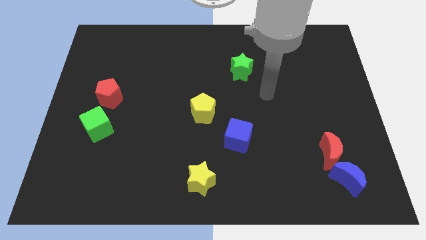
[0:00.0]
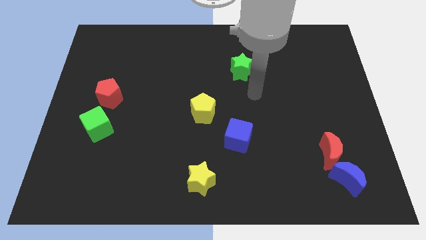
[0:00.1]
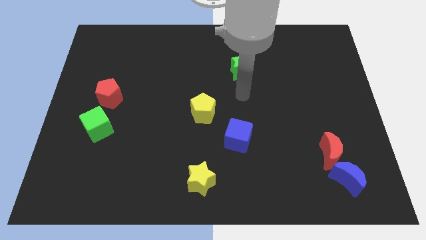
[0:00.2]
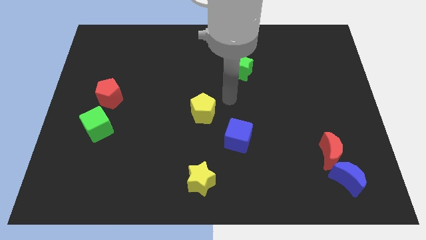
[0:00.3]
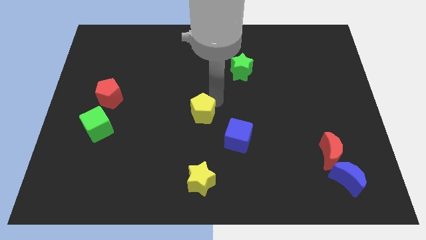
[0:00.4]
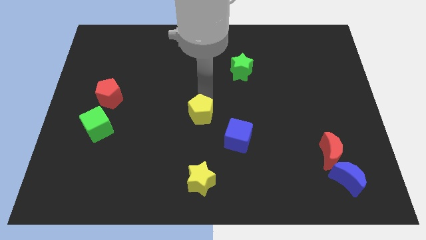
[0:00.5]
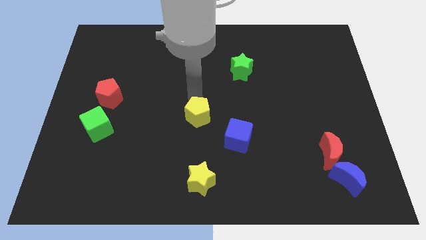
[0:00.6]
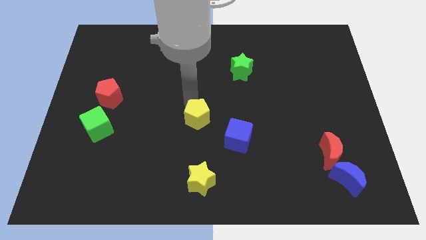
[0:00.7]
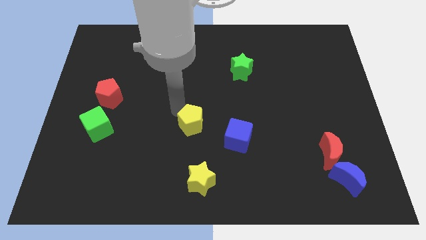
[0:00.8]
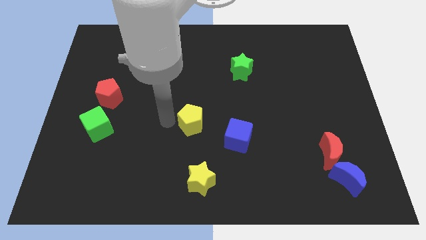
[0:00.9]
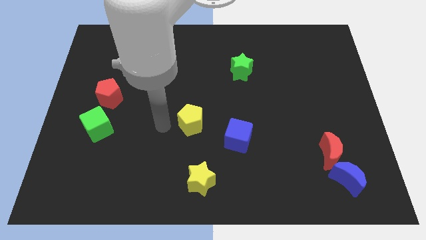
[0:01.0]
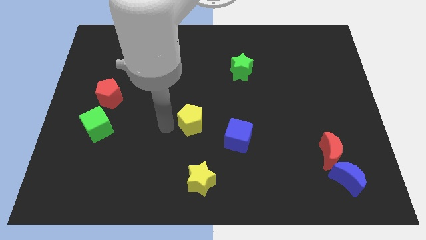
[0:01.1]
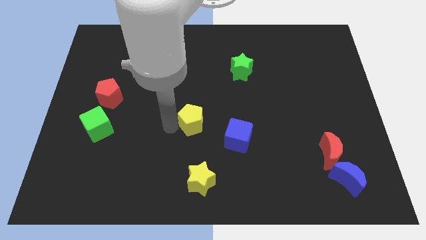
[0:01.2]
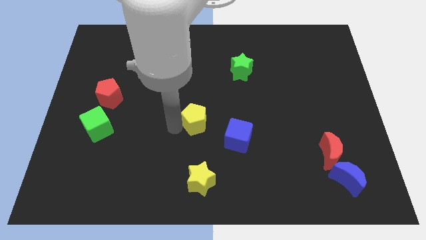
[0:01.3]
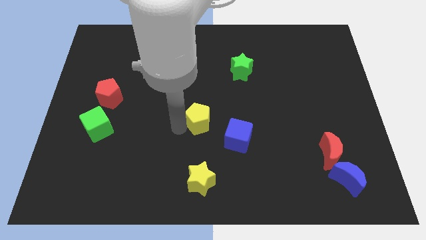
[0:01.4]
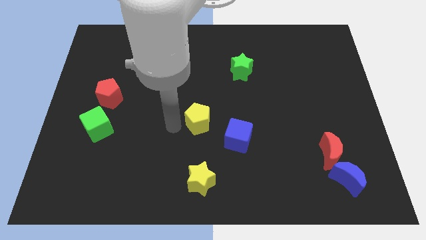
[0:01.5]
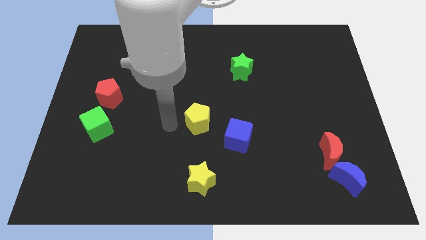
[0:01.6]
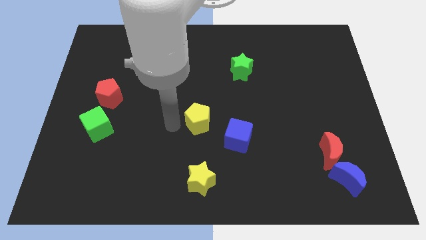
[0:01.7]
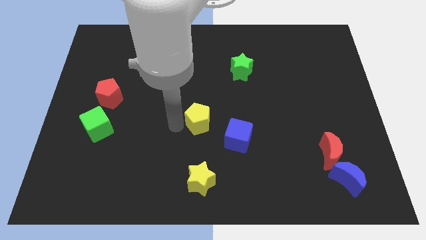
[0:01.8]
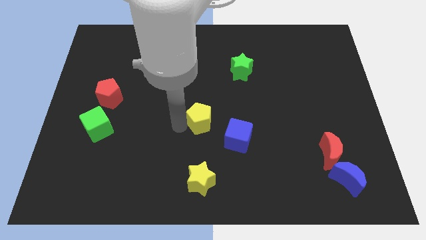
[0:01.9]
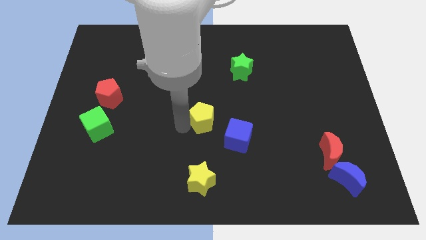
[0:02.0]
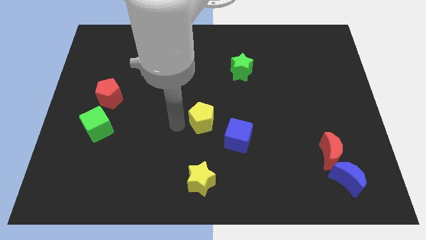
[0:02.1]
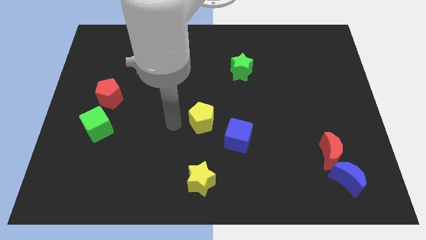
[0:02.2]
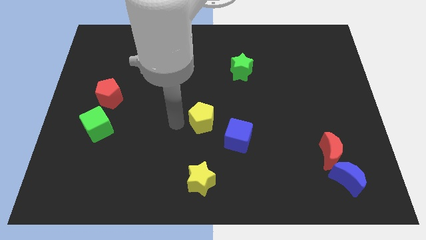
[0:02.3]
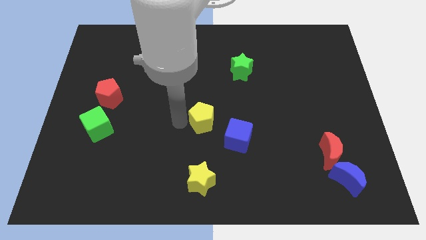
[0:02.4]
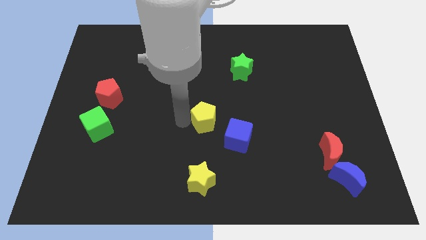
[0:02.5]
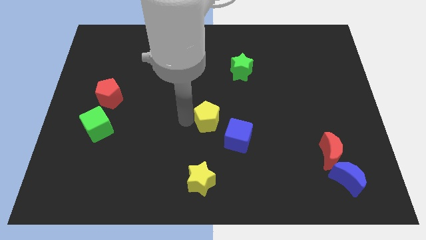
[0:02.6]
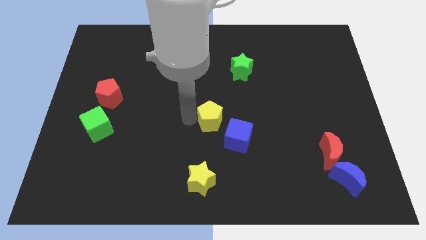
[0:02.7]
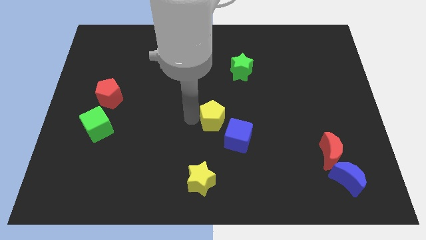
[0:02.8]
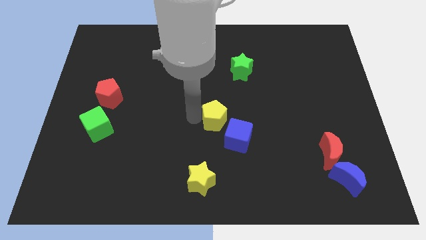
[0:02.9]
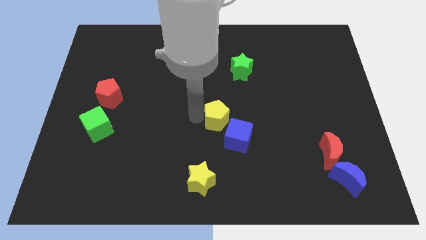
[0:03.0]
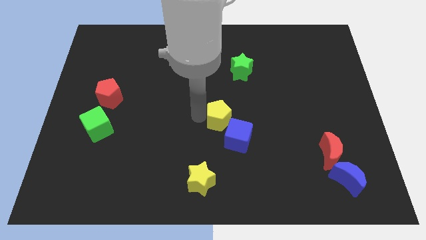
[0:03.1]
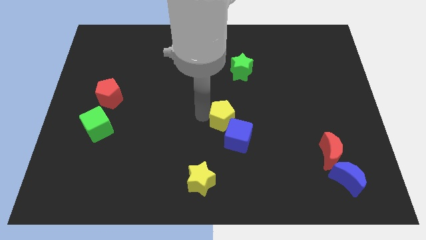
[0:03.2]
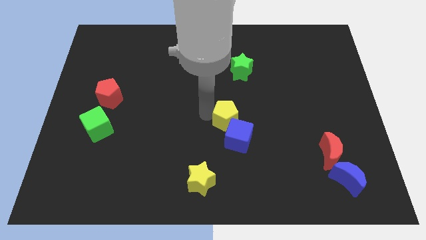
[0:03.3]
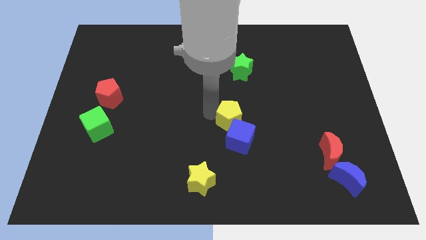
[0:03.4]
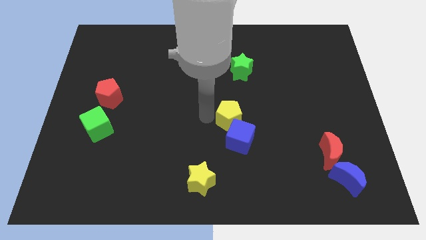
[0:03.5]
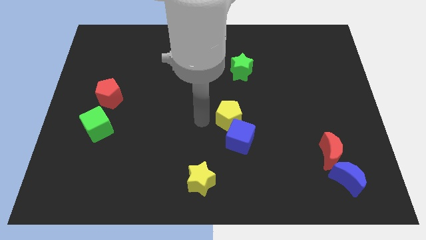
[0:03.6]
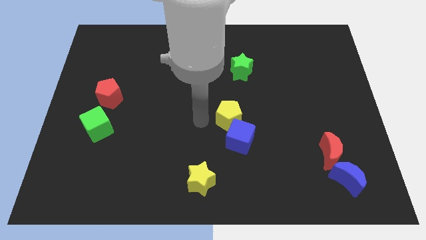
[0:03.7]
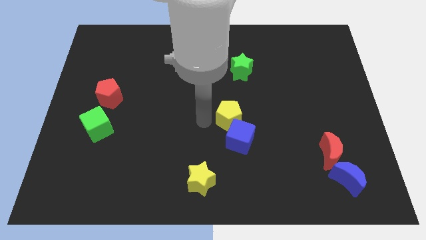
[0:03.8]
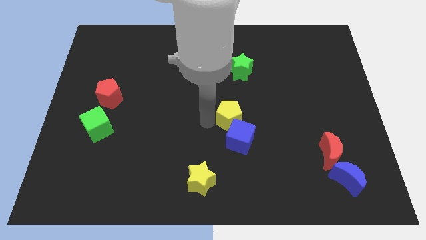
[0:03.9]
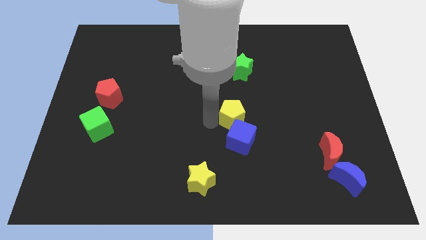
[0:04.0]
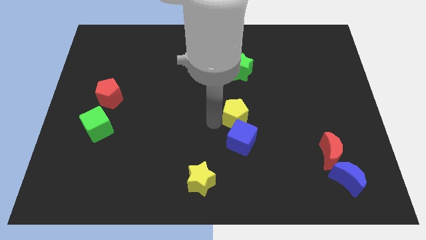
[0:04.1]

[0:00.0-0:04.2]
move the yellow pentagon a little to the right

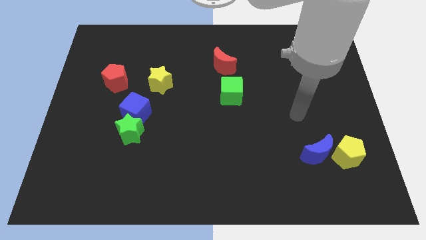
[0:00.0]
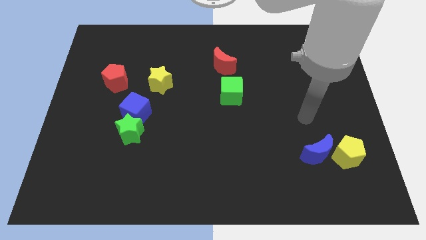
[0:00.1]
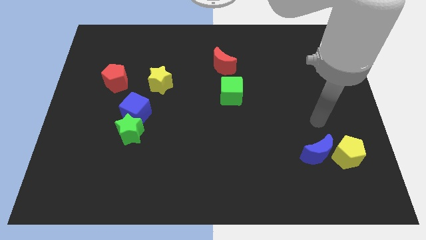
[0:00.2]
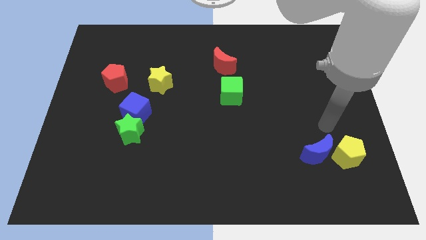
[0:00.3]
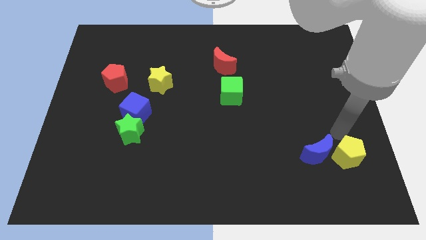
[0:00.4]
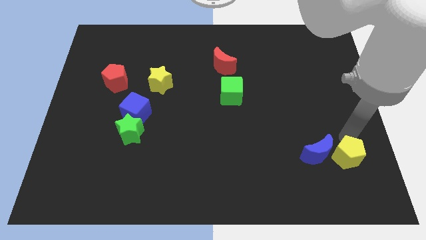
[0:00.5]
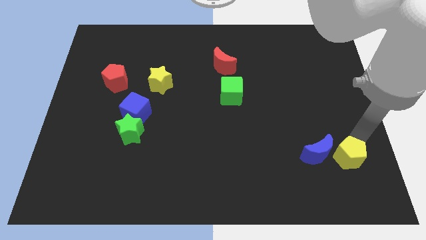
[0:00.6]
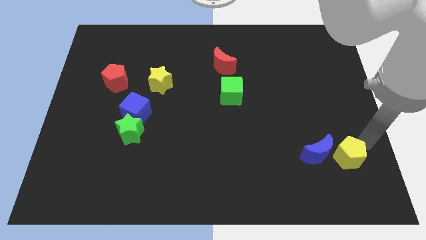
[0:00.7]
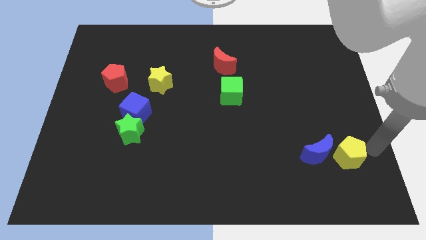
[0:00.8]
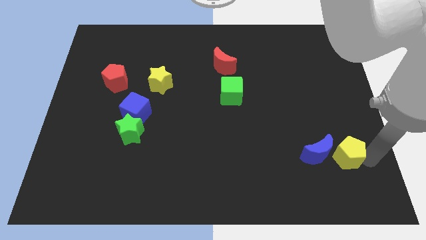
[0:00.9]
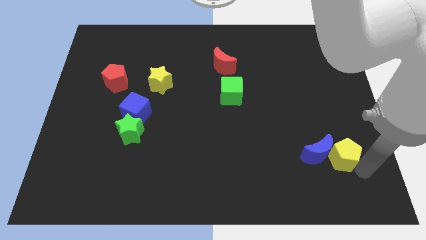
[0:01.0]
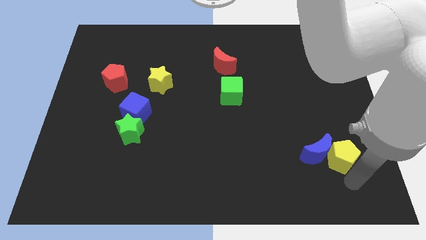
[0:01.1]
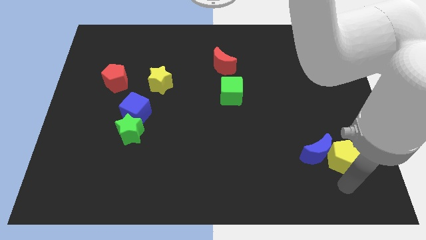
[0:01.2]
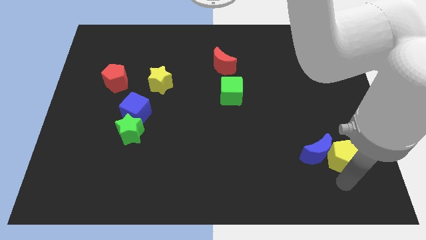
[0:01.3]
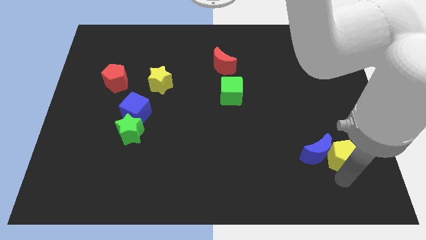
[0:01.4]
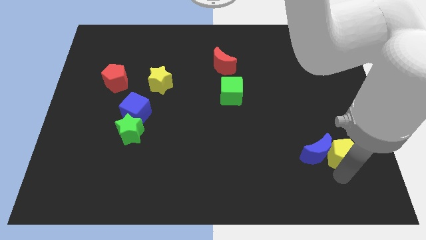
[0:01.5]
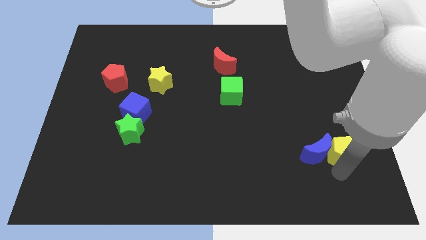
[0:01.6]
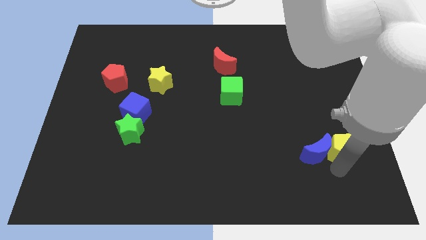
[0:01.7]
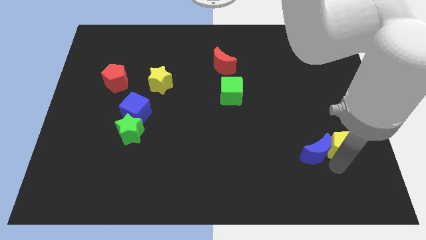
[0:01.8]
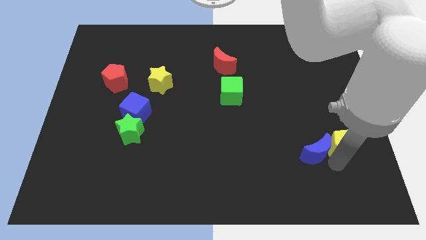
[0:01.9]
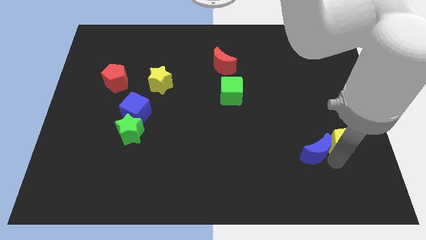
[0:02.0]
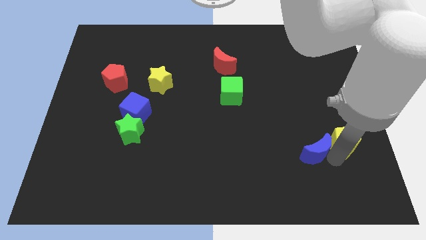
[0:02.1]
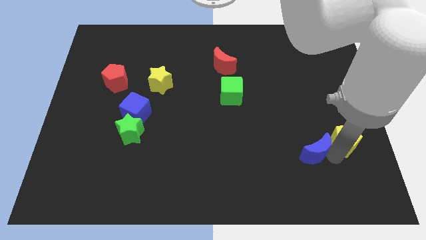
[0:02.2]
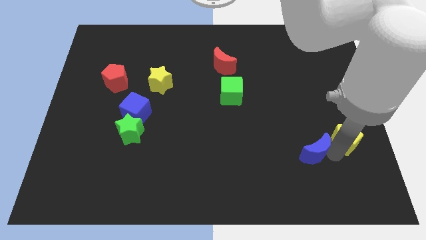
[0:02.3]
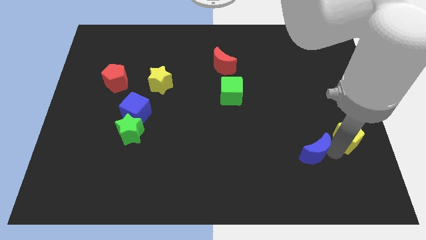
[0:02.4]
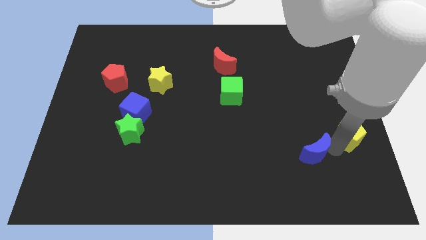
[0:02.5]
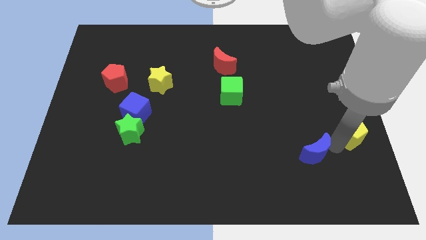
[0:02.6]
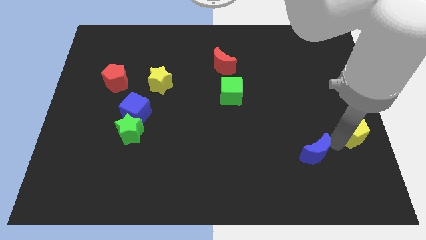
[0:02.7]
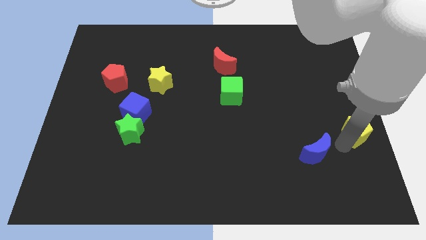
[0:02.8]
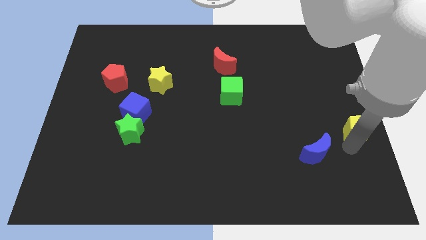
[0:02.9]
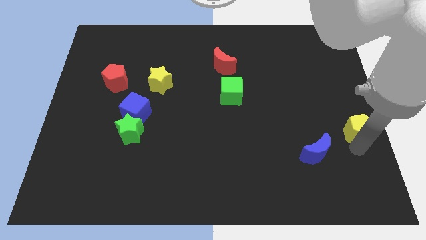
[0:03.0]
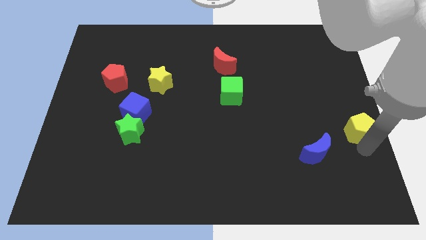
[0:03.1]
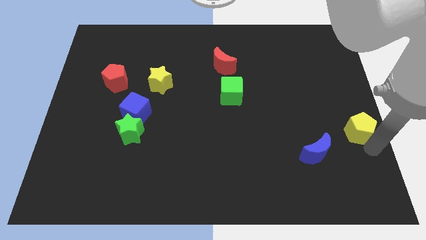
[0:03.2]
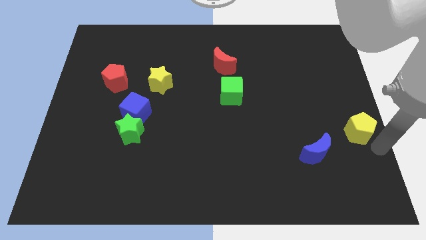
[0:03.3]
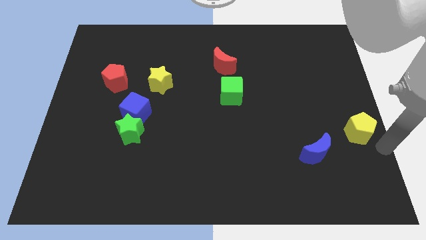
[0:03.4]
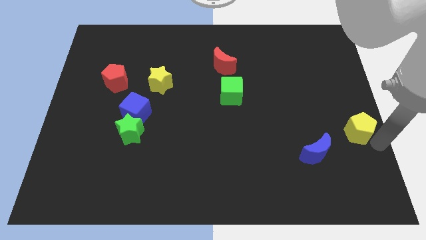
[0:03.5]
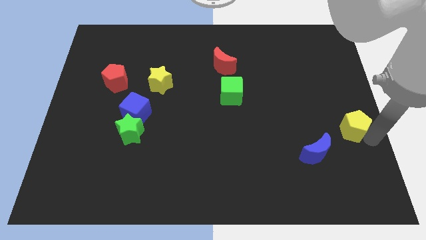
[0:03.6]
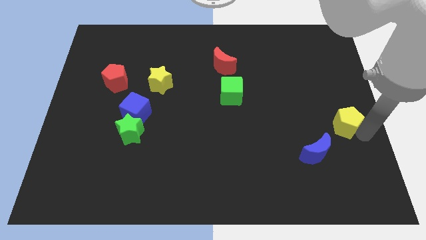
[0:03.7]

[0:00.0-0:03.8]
push the yellow pentagon slightly upwards

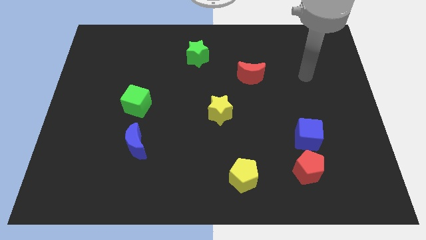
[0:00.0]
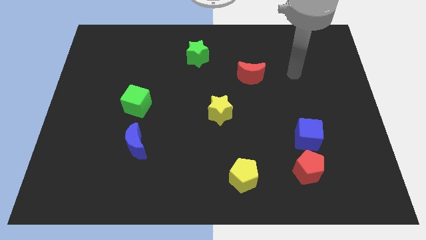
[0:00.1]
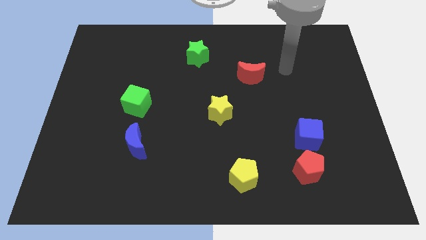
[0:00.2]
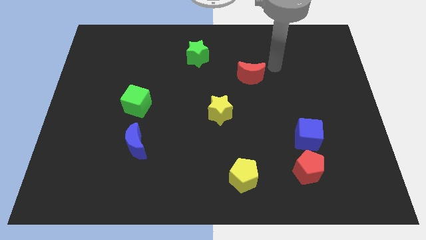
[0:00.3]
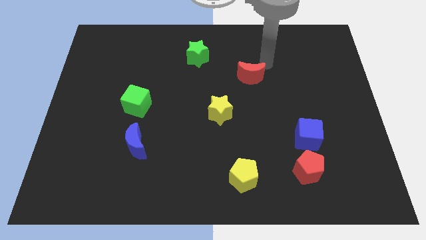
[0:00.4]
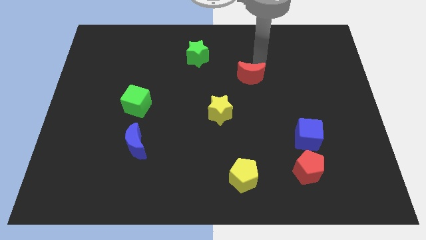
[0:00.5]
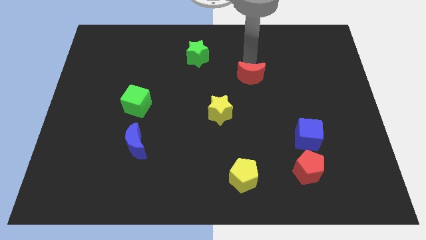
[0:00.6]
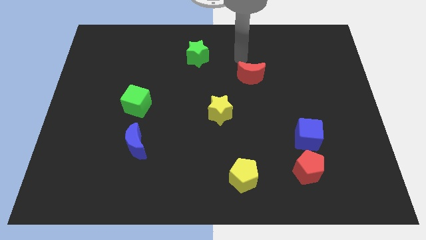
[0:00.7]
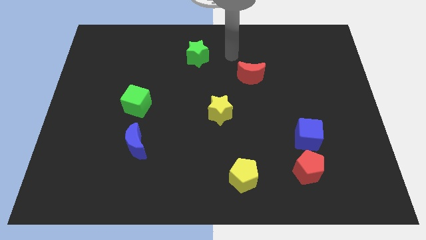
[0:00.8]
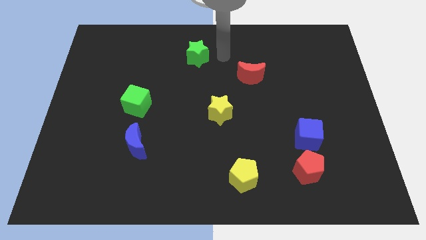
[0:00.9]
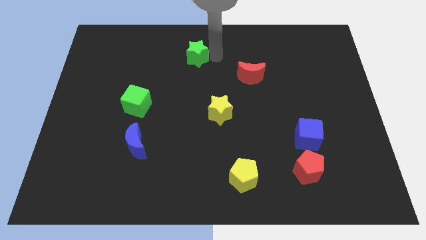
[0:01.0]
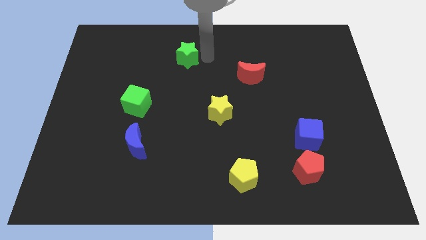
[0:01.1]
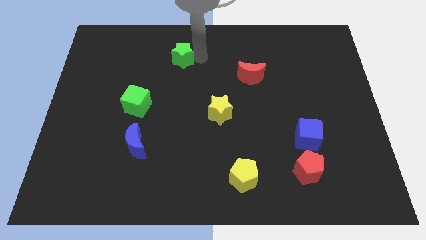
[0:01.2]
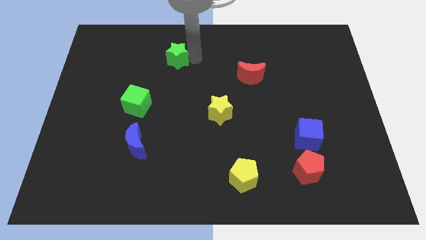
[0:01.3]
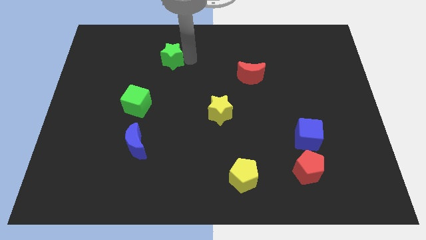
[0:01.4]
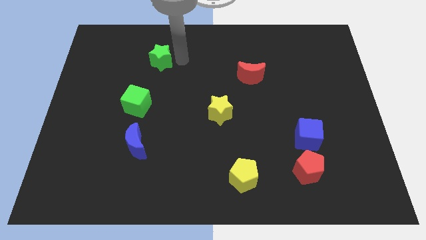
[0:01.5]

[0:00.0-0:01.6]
slightly slide the green star left
